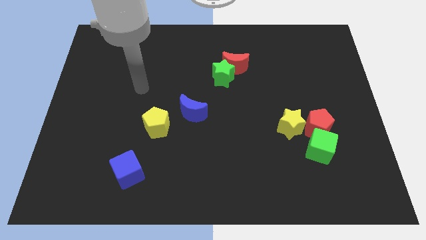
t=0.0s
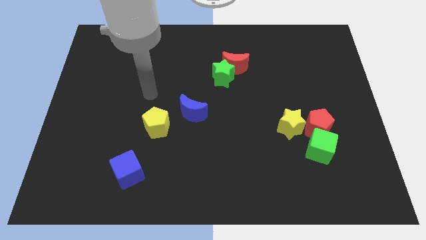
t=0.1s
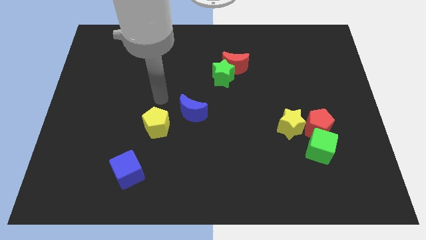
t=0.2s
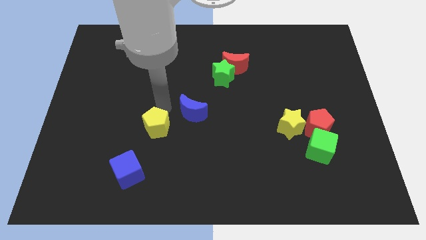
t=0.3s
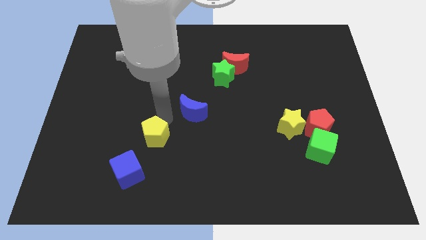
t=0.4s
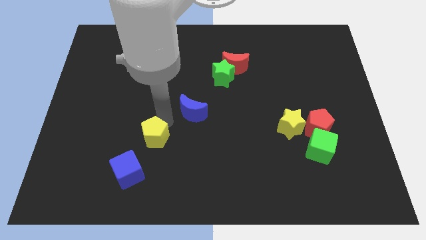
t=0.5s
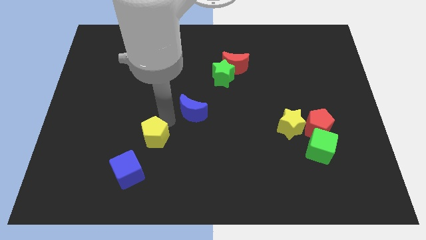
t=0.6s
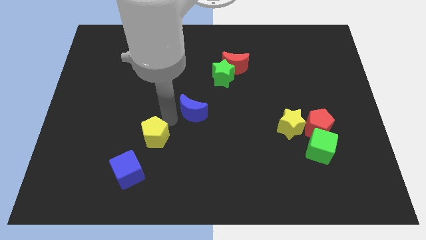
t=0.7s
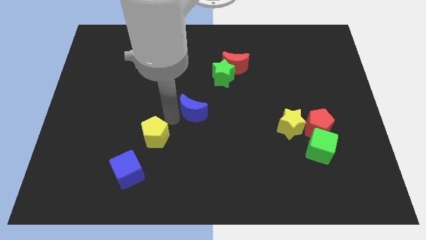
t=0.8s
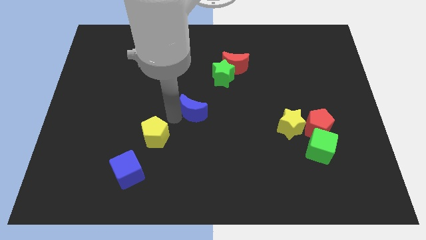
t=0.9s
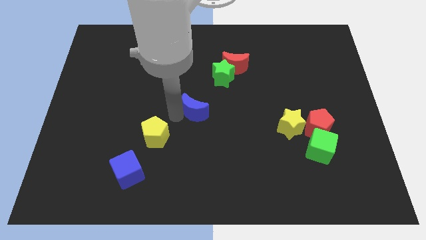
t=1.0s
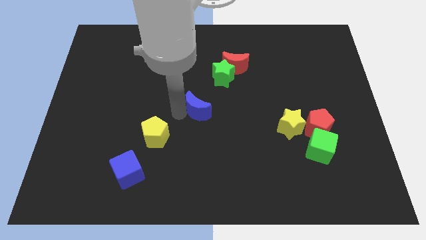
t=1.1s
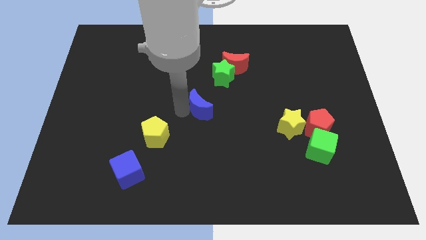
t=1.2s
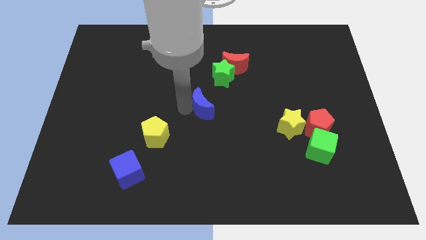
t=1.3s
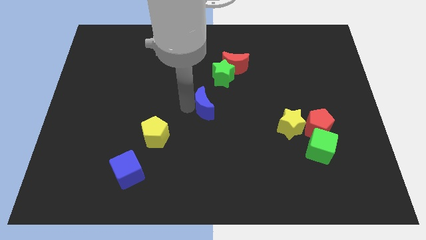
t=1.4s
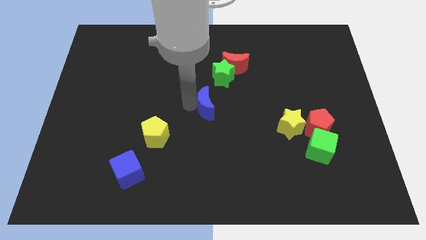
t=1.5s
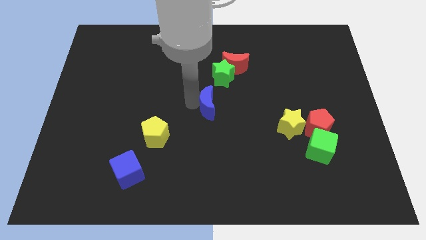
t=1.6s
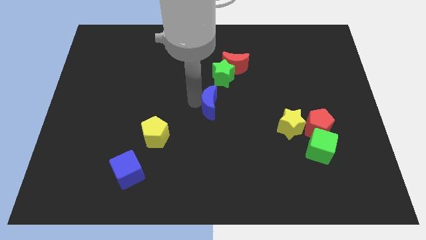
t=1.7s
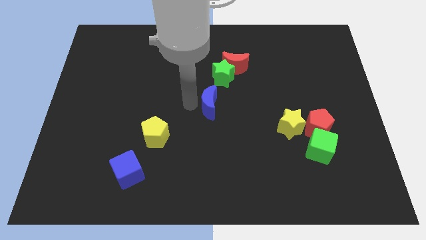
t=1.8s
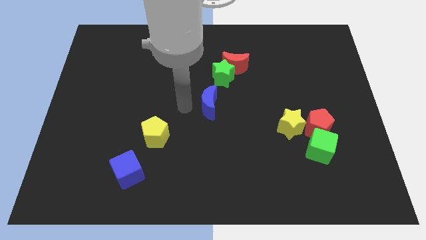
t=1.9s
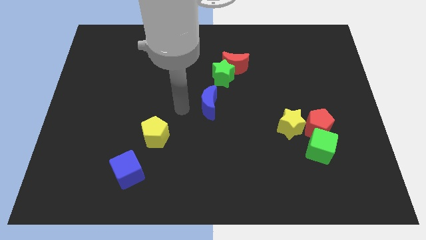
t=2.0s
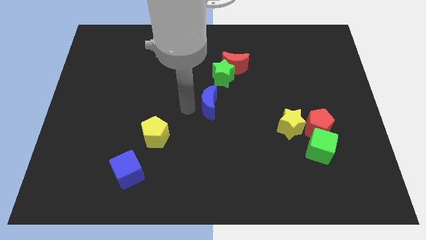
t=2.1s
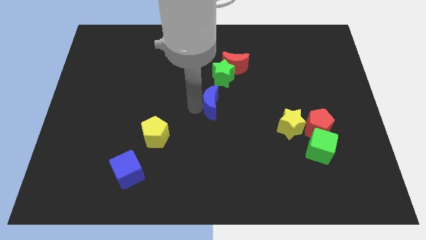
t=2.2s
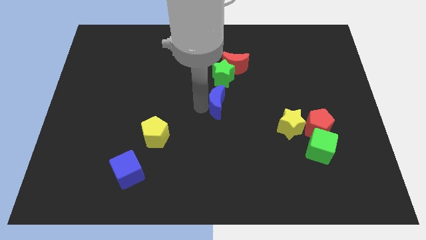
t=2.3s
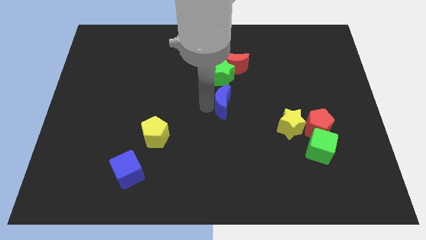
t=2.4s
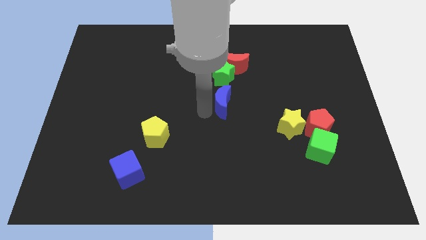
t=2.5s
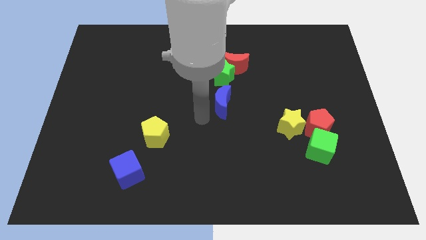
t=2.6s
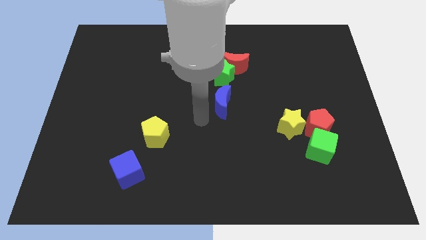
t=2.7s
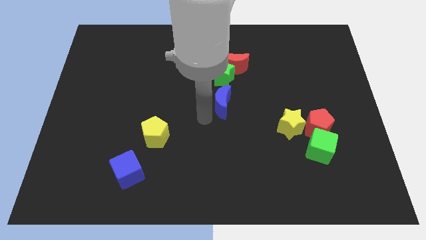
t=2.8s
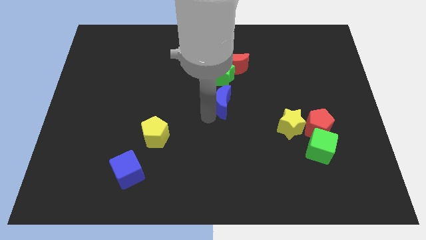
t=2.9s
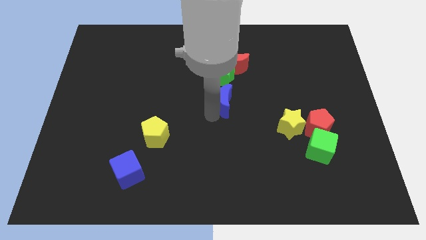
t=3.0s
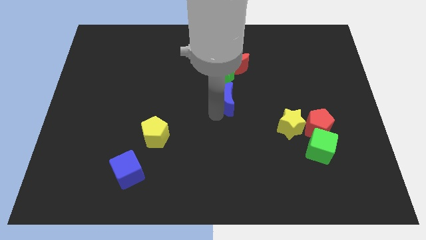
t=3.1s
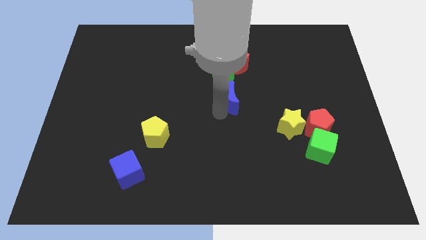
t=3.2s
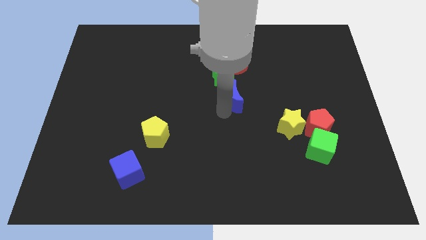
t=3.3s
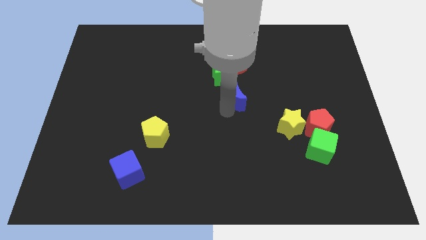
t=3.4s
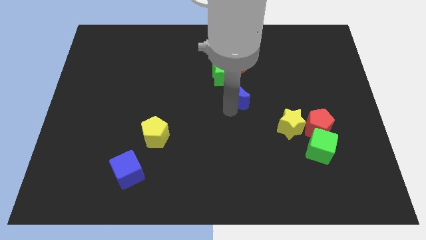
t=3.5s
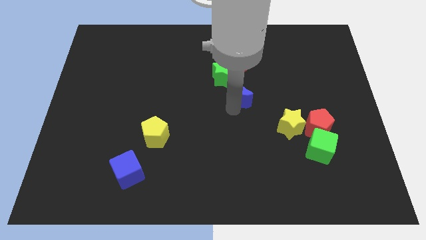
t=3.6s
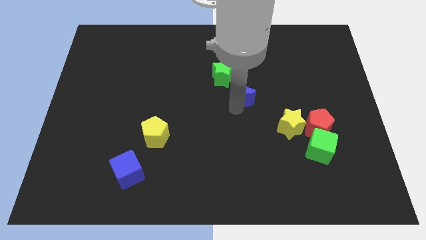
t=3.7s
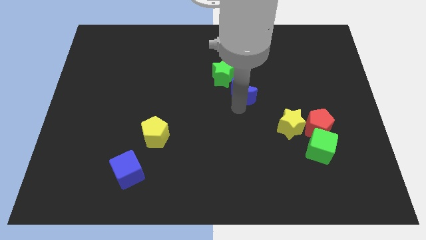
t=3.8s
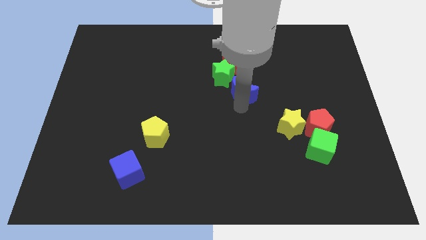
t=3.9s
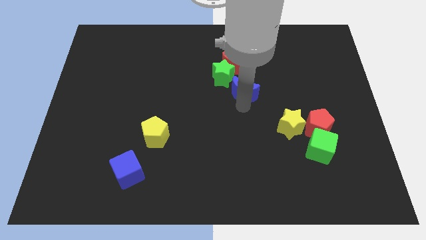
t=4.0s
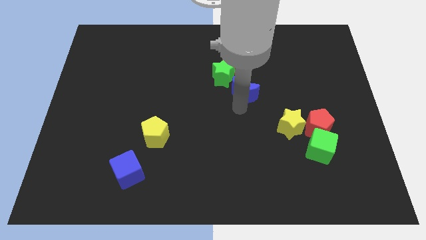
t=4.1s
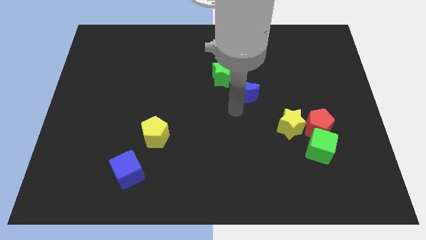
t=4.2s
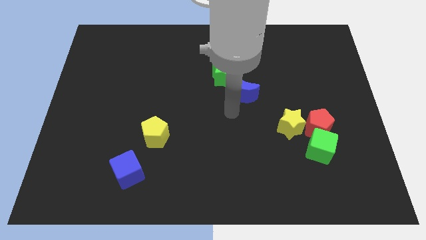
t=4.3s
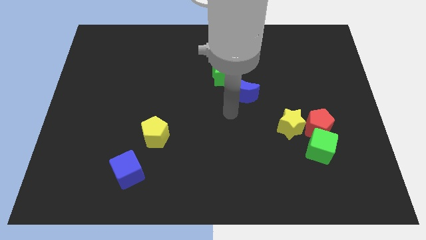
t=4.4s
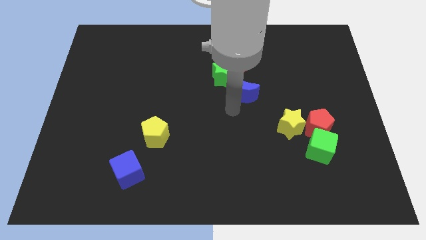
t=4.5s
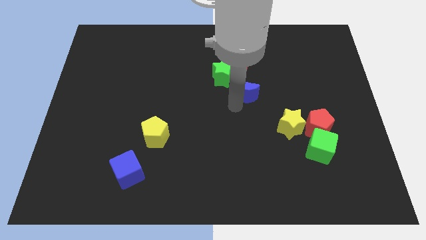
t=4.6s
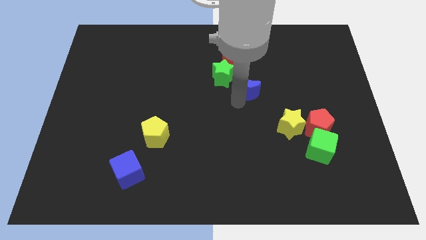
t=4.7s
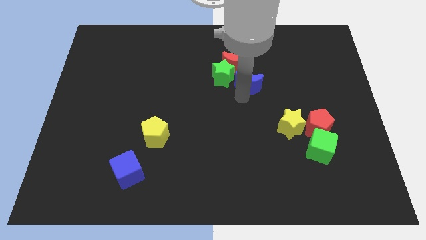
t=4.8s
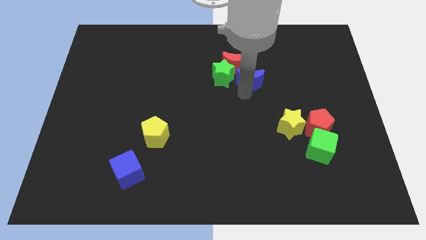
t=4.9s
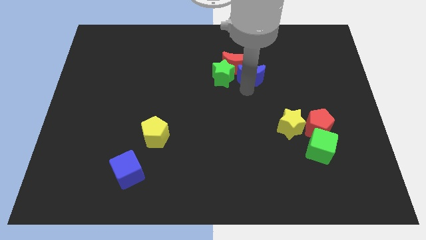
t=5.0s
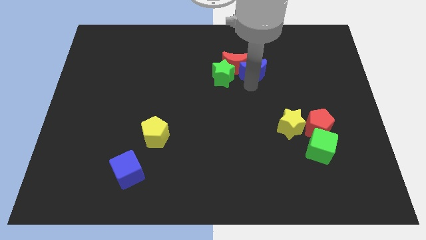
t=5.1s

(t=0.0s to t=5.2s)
move the blue moon diagonally up and to the right of the green star

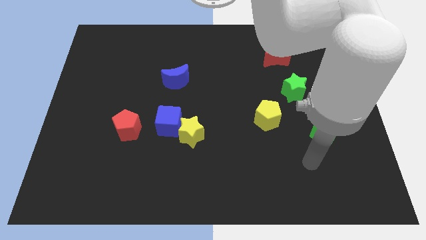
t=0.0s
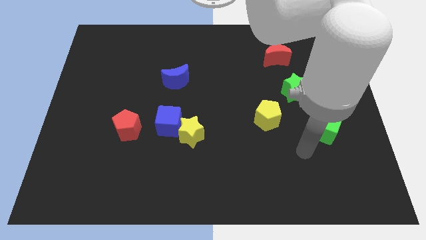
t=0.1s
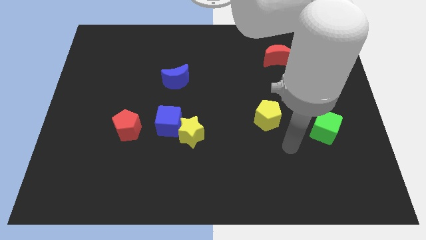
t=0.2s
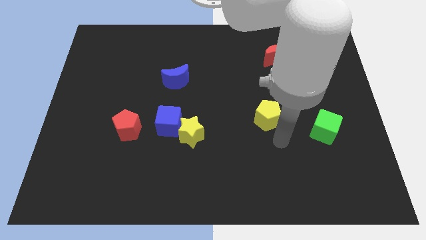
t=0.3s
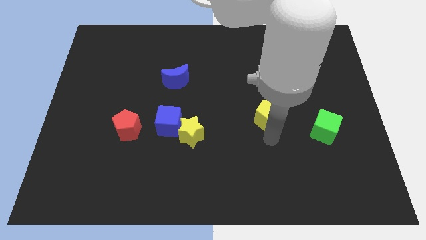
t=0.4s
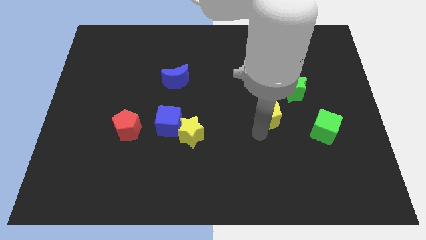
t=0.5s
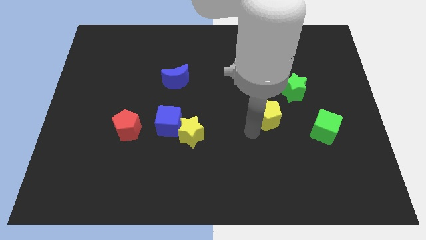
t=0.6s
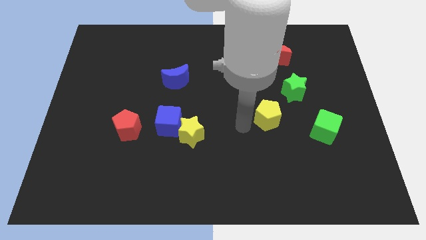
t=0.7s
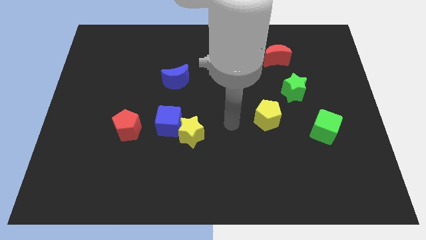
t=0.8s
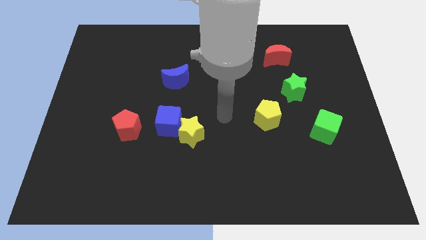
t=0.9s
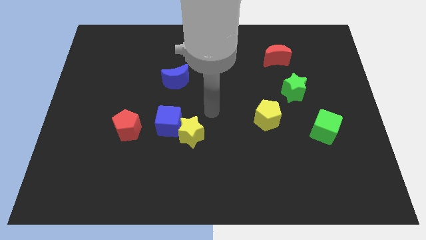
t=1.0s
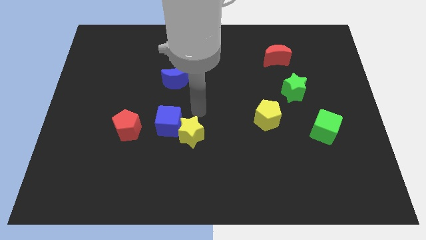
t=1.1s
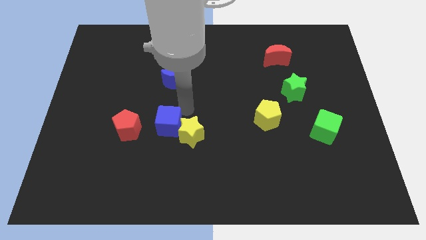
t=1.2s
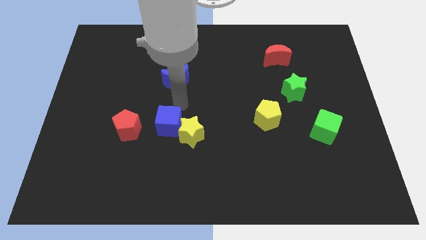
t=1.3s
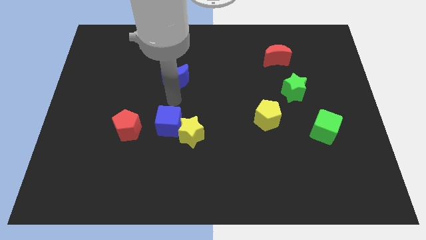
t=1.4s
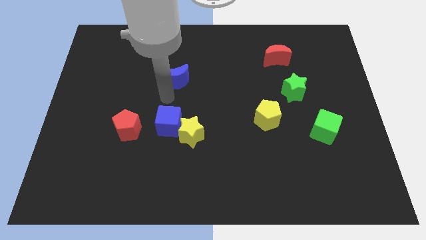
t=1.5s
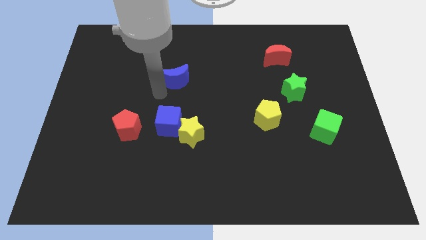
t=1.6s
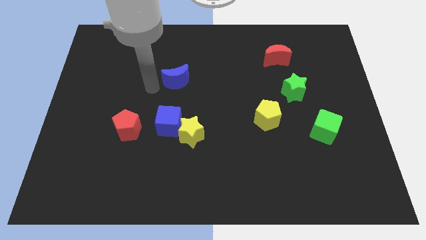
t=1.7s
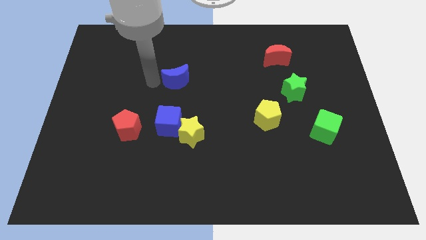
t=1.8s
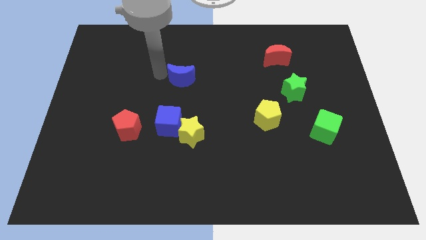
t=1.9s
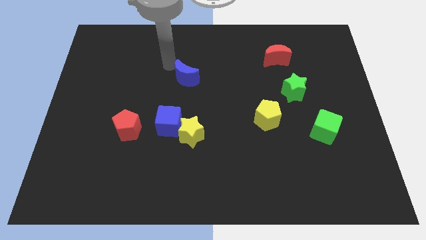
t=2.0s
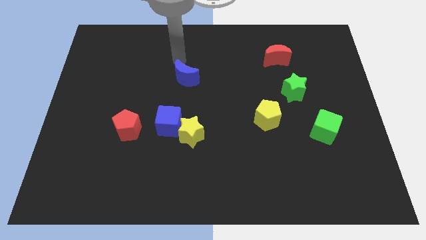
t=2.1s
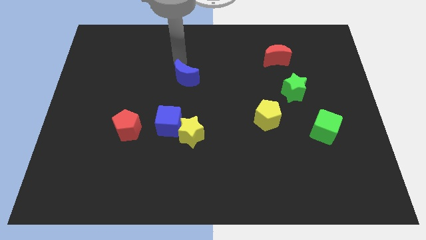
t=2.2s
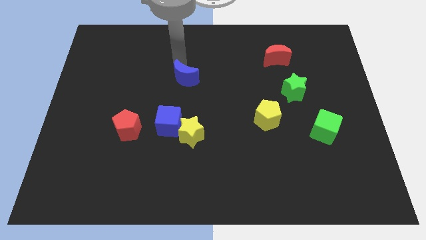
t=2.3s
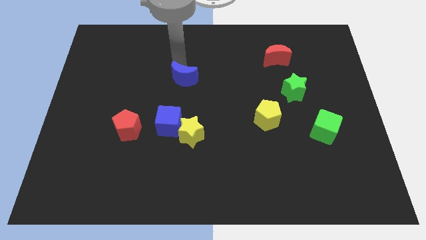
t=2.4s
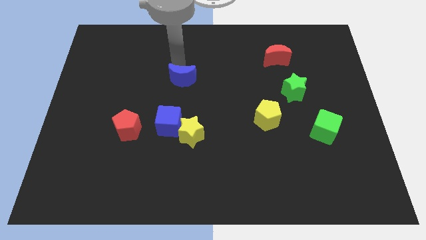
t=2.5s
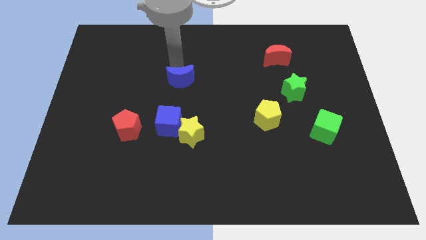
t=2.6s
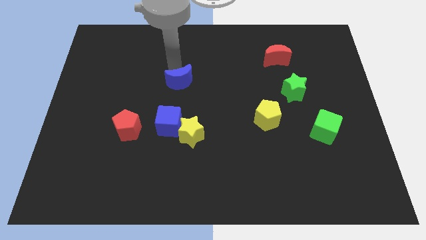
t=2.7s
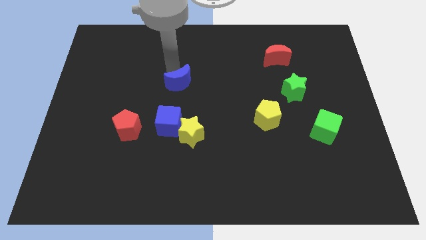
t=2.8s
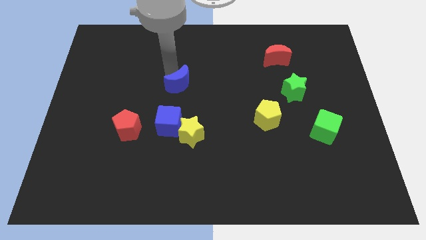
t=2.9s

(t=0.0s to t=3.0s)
move the blue moon to the top of the yellow star
